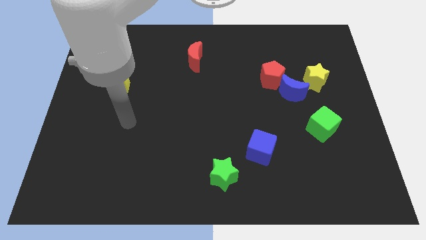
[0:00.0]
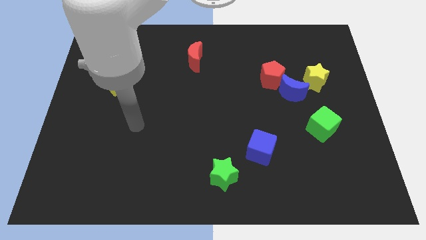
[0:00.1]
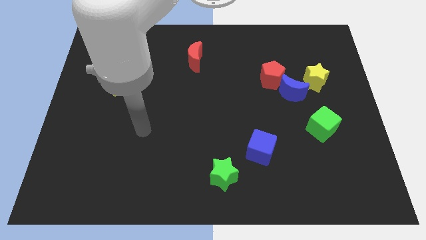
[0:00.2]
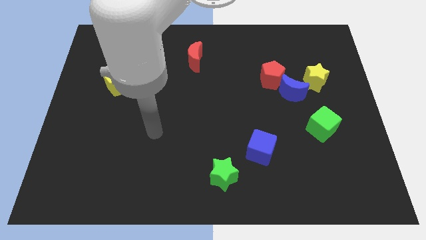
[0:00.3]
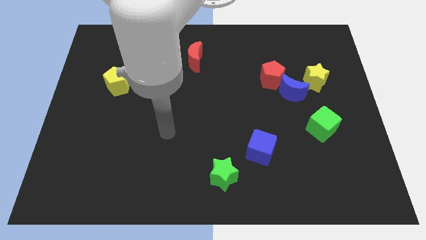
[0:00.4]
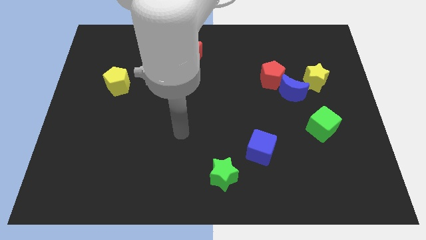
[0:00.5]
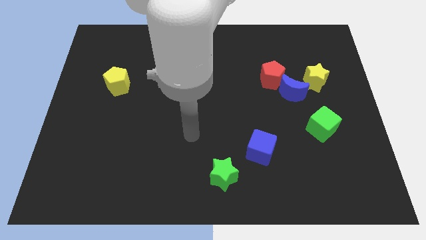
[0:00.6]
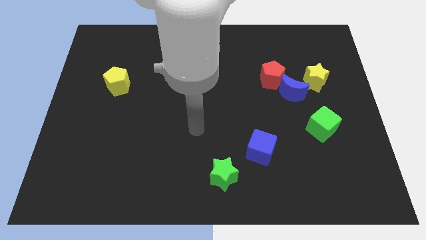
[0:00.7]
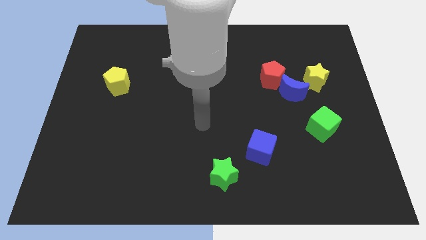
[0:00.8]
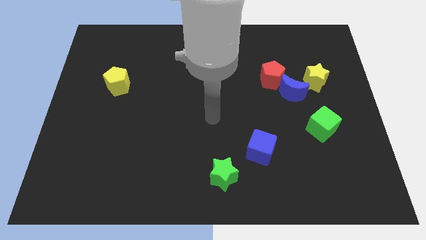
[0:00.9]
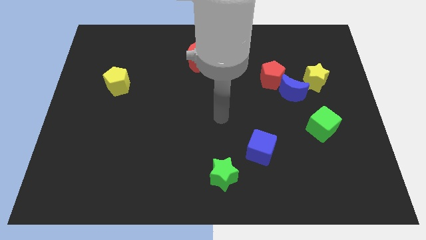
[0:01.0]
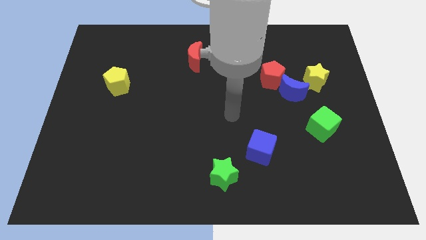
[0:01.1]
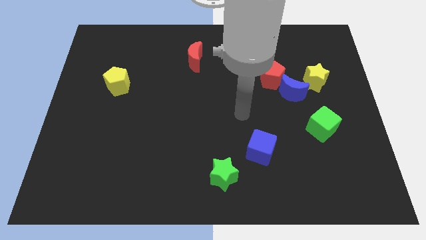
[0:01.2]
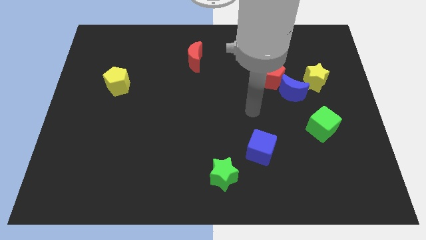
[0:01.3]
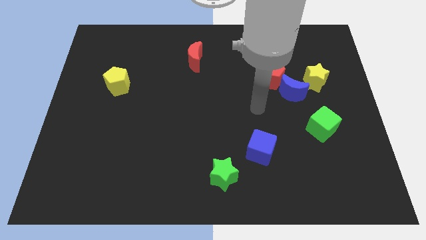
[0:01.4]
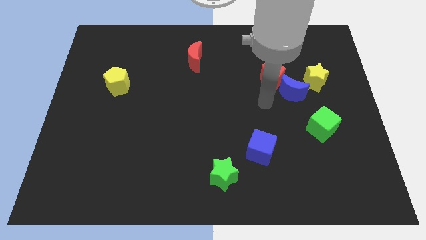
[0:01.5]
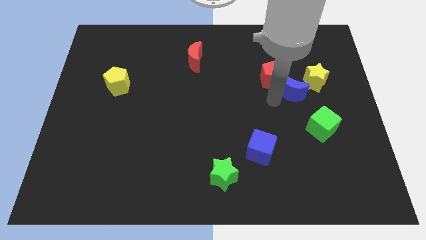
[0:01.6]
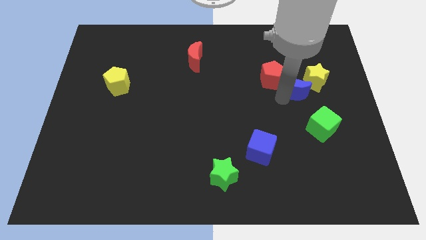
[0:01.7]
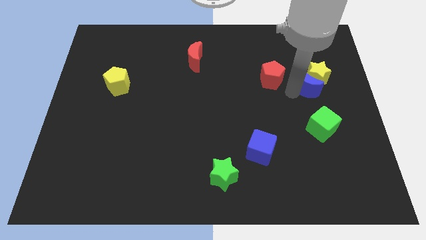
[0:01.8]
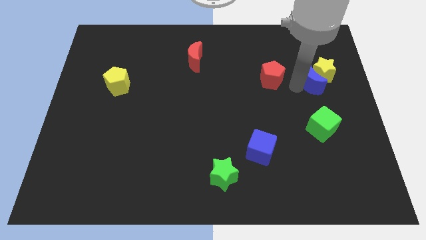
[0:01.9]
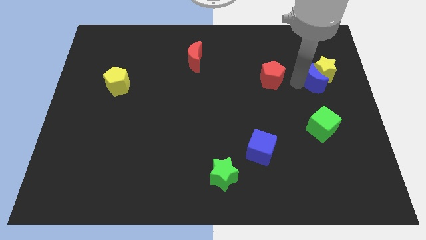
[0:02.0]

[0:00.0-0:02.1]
separate the red pentagon from the blue moon

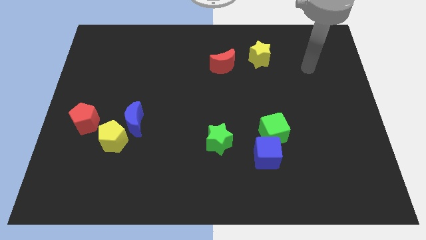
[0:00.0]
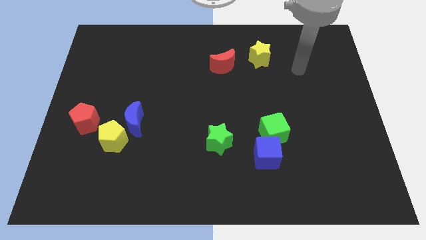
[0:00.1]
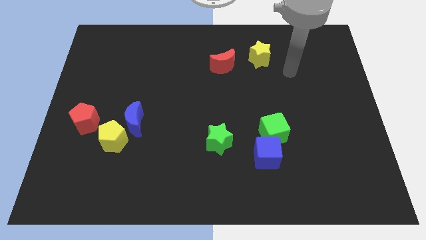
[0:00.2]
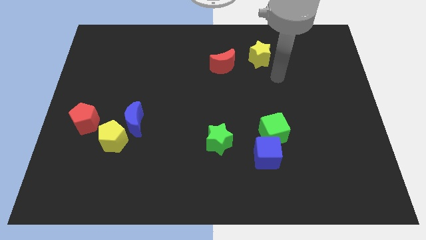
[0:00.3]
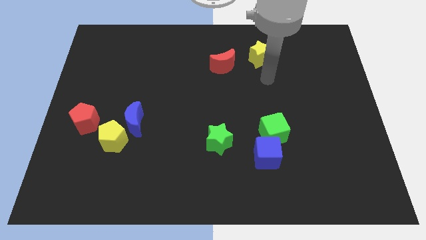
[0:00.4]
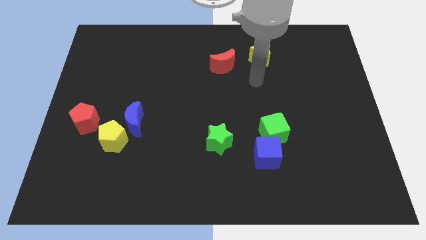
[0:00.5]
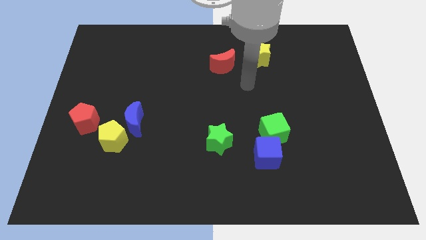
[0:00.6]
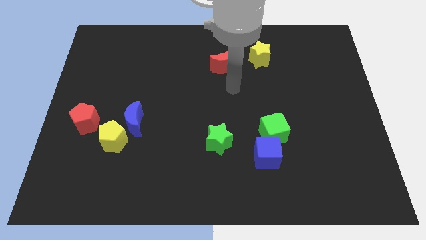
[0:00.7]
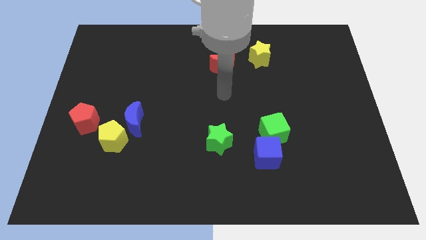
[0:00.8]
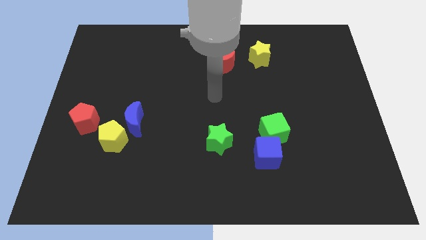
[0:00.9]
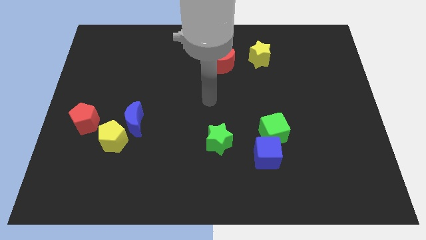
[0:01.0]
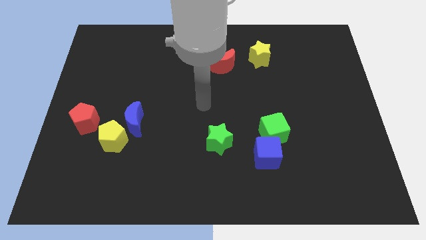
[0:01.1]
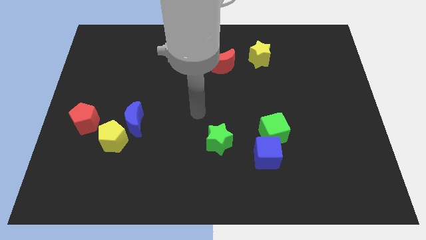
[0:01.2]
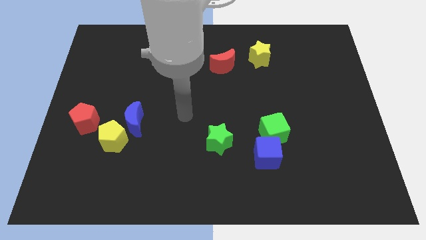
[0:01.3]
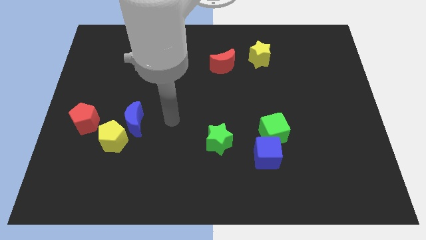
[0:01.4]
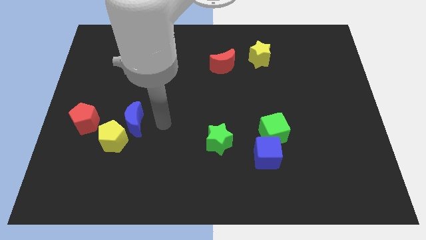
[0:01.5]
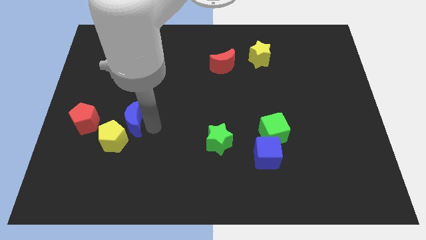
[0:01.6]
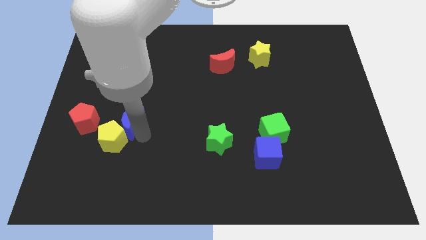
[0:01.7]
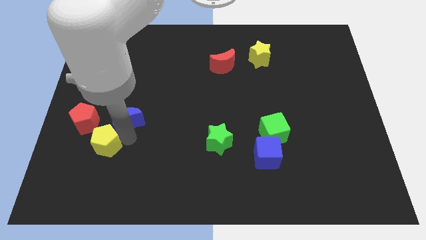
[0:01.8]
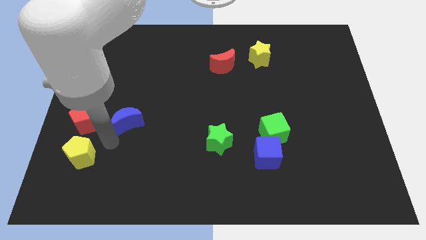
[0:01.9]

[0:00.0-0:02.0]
pull the blue moon apart from the yellow pentagon

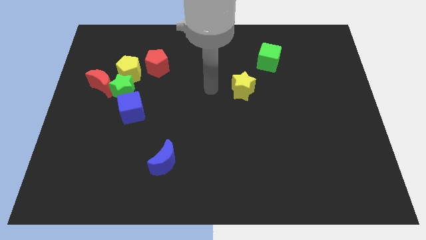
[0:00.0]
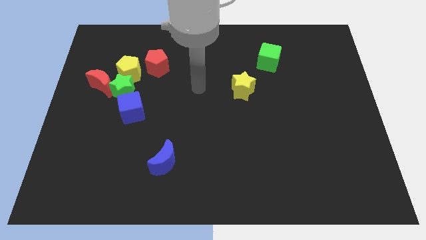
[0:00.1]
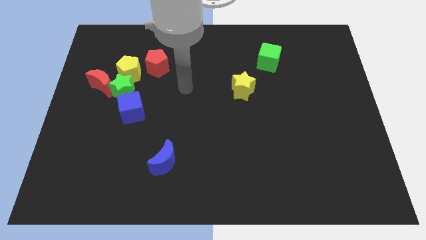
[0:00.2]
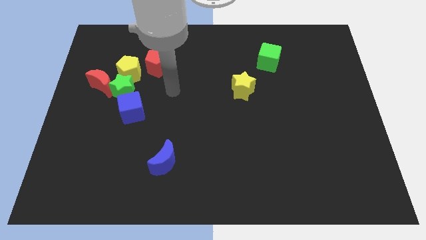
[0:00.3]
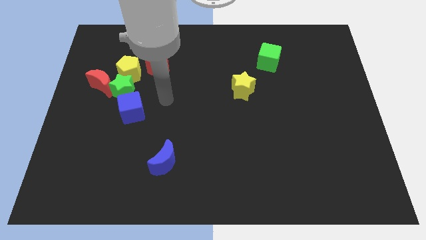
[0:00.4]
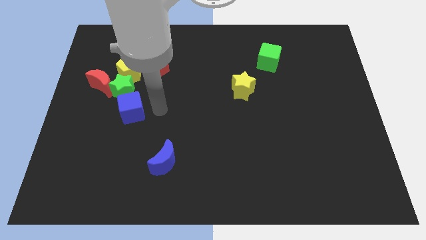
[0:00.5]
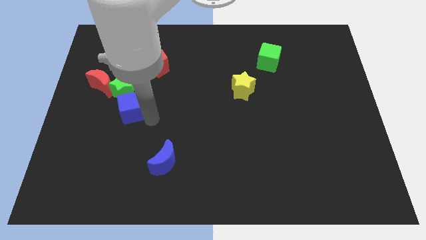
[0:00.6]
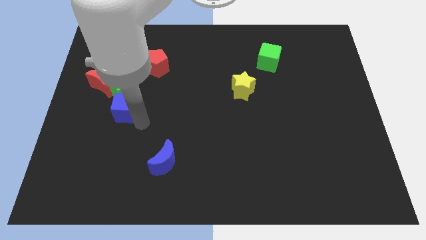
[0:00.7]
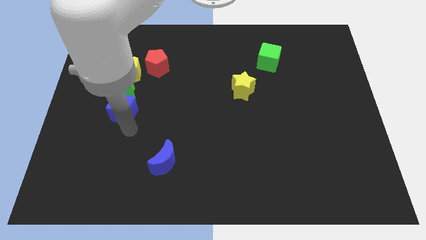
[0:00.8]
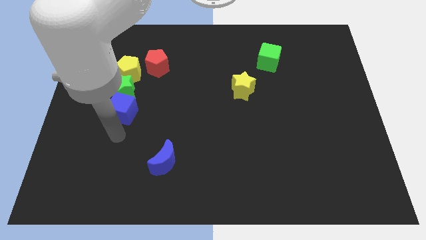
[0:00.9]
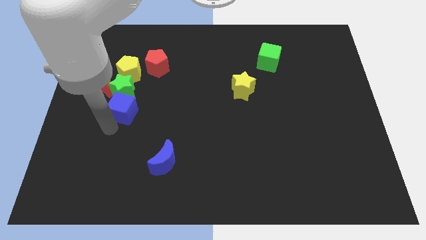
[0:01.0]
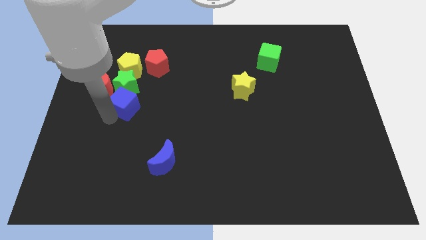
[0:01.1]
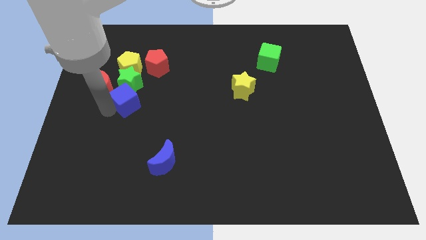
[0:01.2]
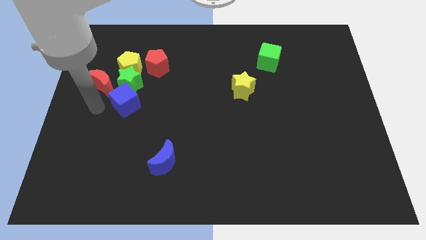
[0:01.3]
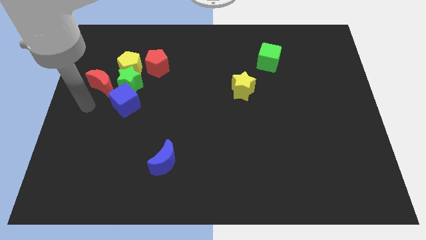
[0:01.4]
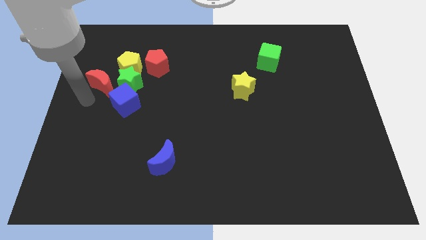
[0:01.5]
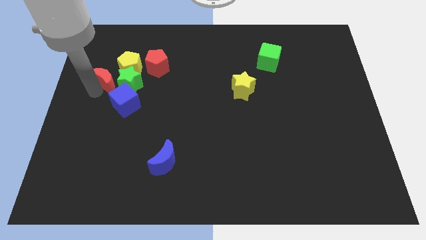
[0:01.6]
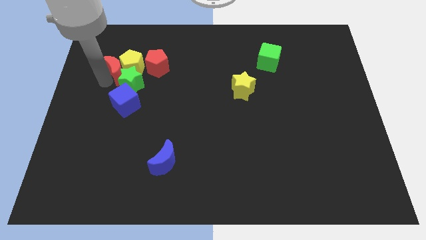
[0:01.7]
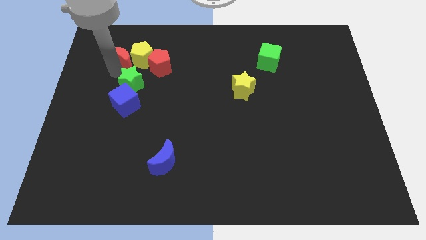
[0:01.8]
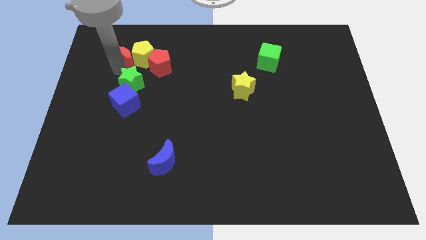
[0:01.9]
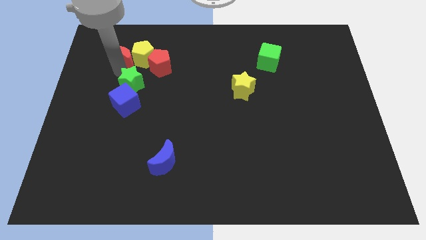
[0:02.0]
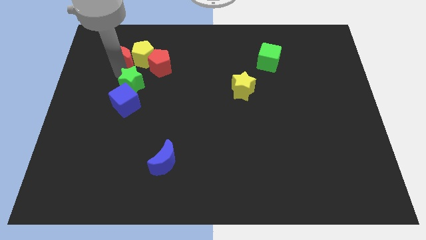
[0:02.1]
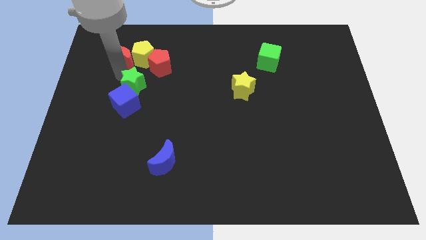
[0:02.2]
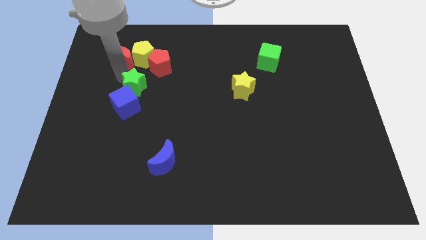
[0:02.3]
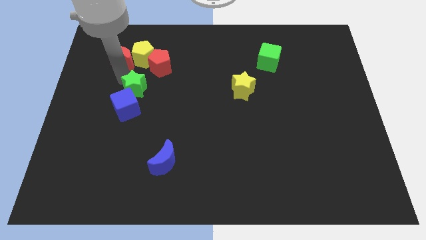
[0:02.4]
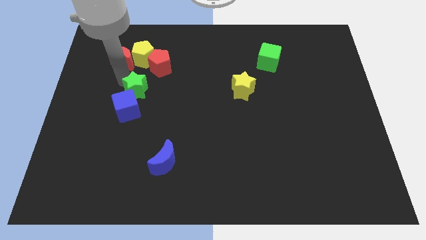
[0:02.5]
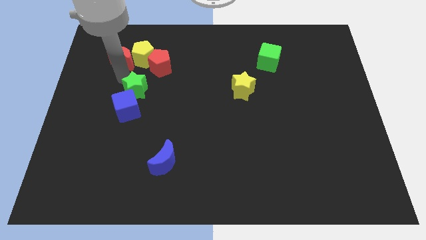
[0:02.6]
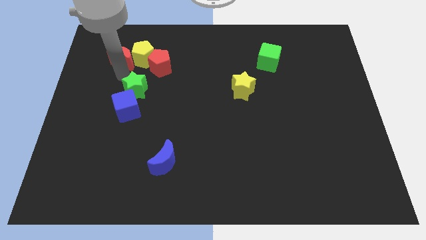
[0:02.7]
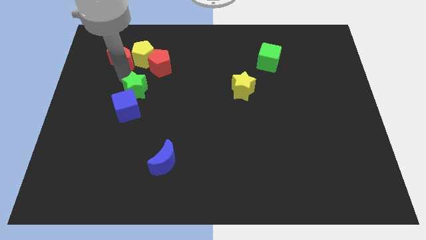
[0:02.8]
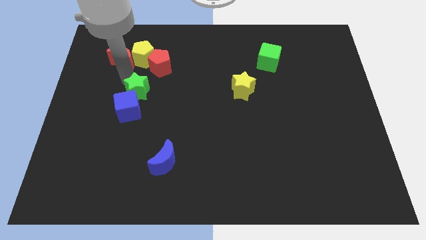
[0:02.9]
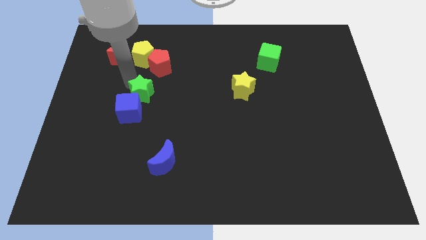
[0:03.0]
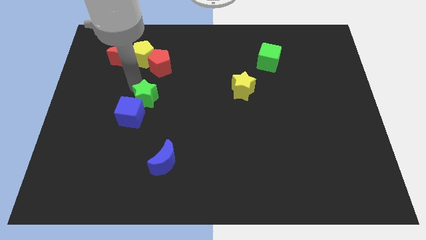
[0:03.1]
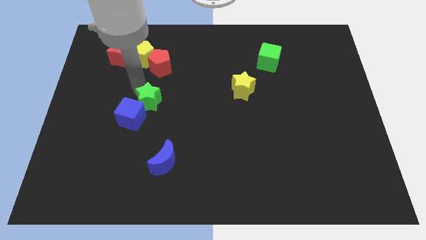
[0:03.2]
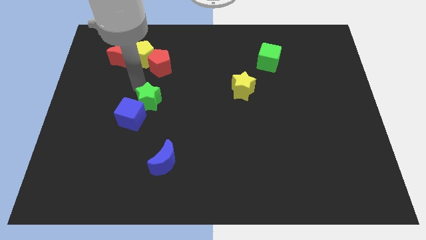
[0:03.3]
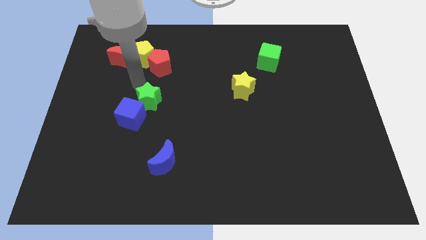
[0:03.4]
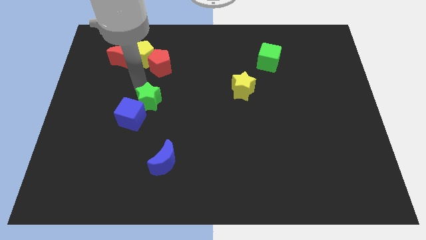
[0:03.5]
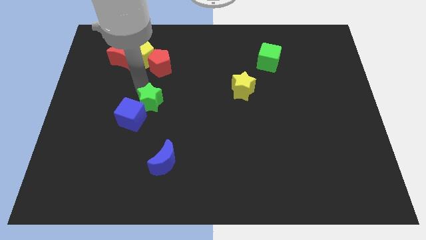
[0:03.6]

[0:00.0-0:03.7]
separate the green star from the group

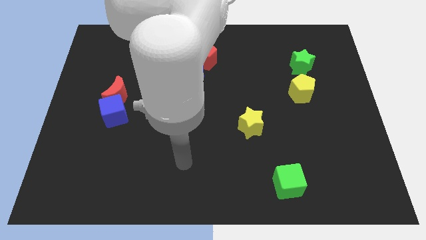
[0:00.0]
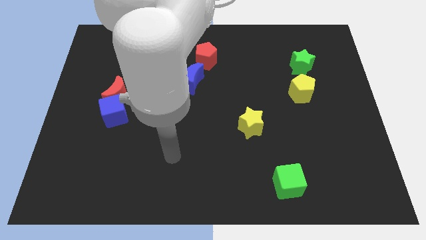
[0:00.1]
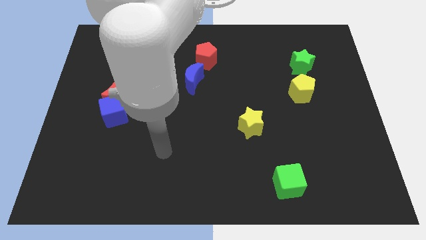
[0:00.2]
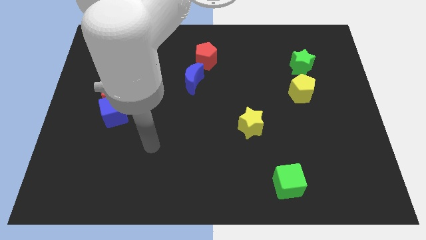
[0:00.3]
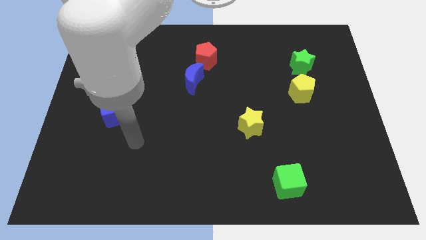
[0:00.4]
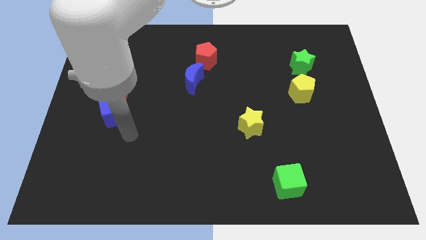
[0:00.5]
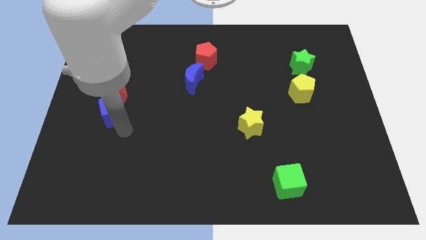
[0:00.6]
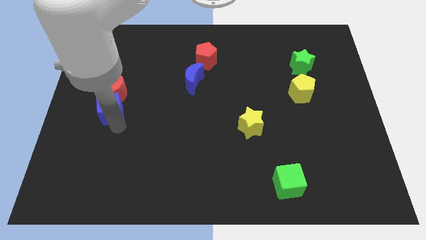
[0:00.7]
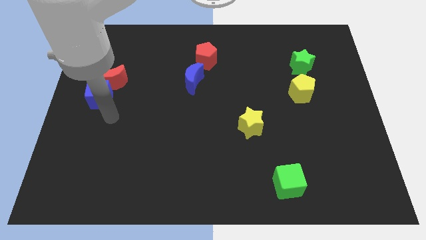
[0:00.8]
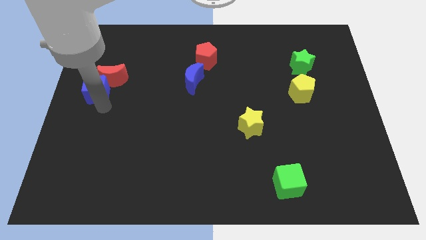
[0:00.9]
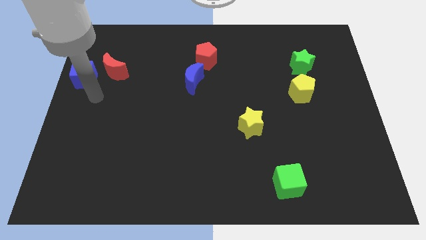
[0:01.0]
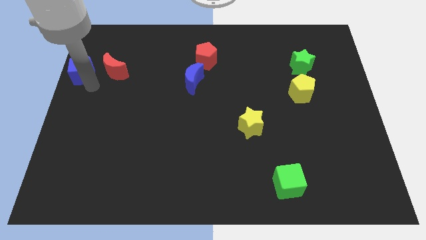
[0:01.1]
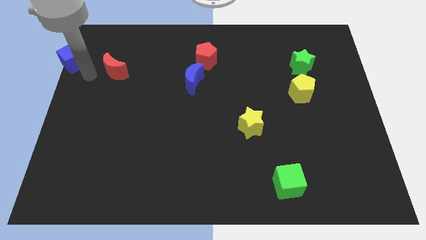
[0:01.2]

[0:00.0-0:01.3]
separate the red moon from the blue cube

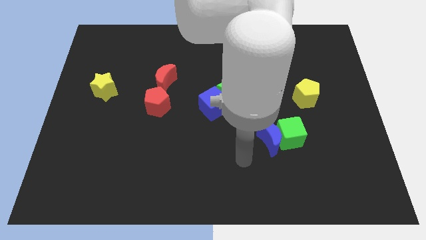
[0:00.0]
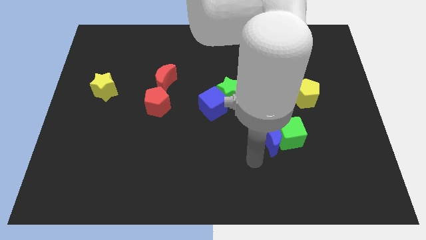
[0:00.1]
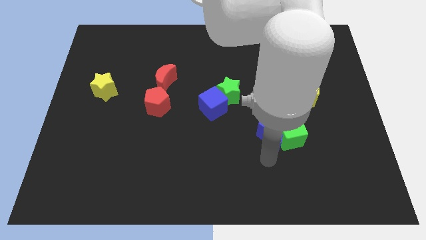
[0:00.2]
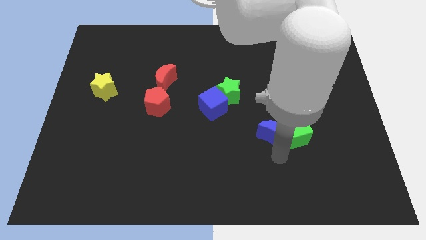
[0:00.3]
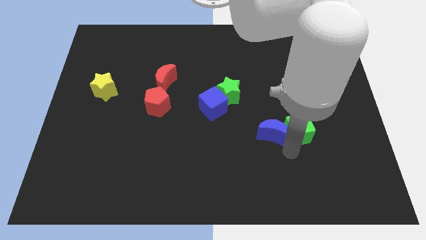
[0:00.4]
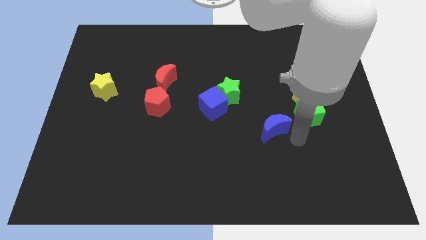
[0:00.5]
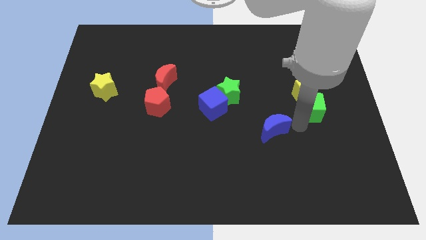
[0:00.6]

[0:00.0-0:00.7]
pull the blue moon apart from the green cube
